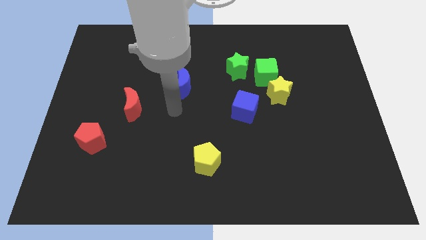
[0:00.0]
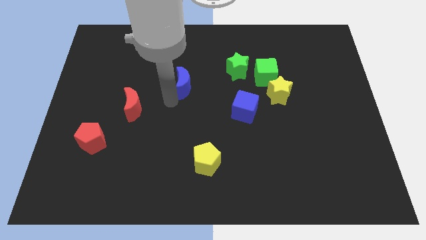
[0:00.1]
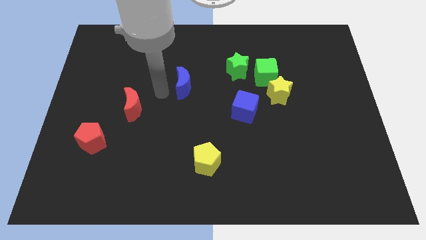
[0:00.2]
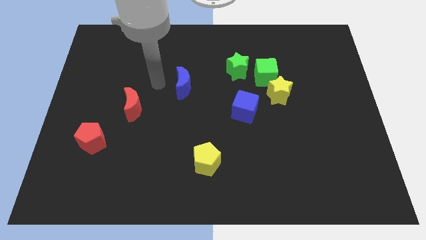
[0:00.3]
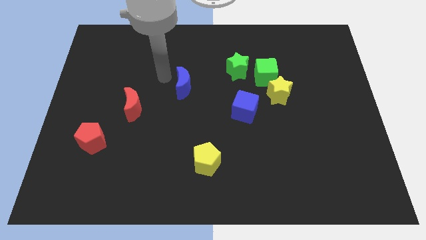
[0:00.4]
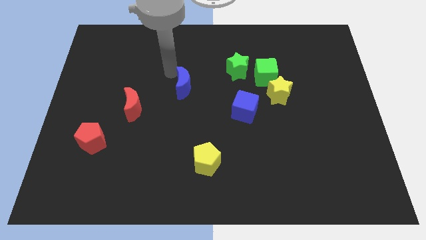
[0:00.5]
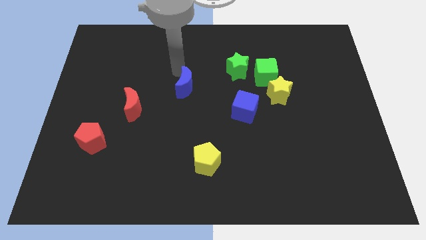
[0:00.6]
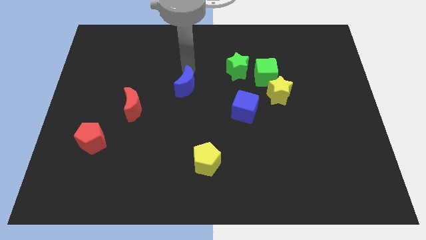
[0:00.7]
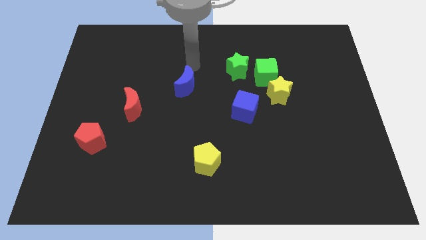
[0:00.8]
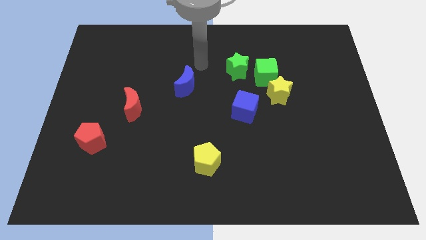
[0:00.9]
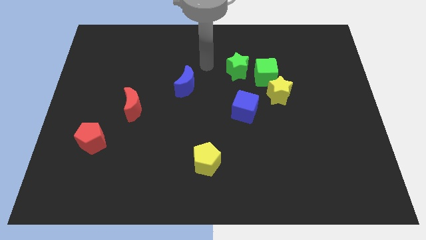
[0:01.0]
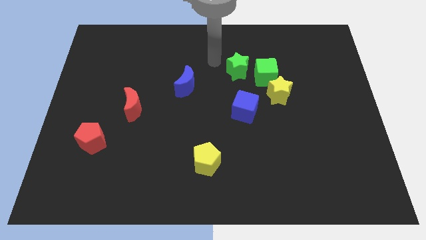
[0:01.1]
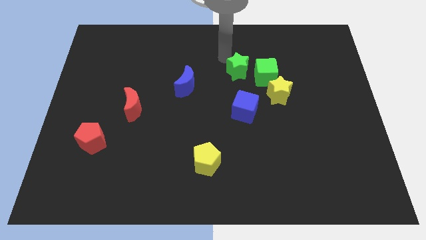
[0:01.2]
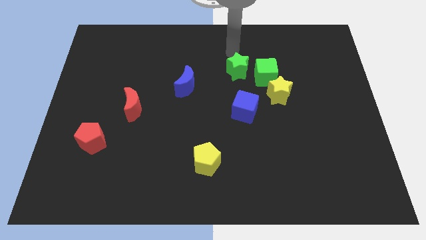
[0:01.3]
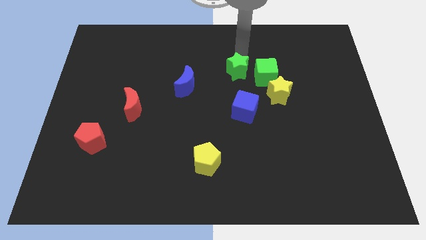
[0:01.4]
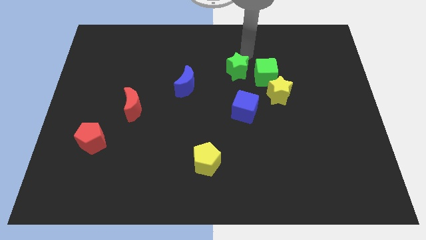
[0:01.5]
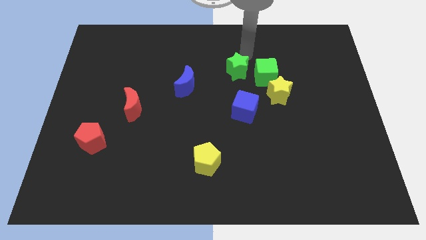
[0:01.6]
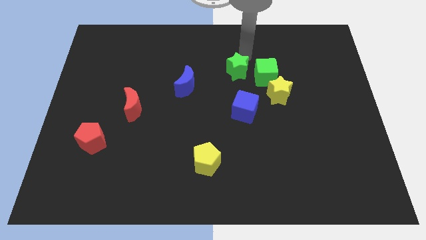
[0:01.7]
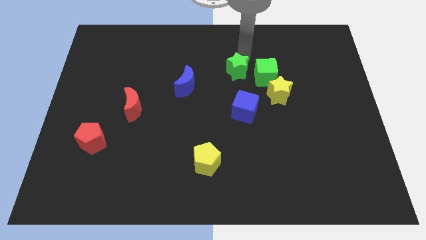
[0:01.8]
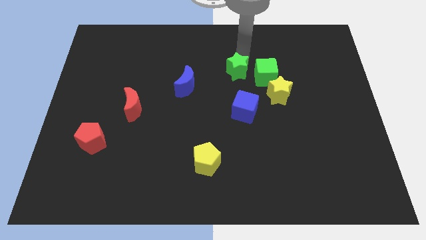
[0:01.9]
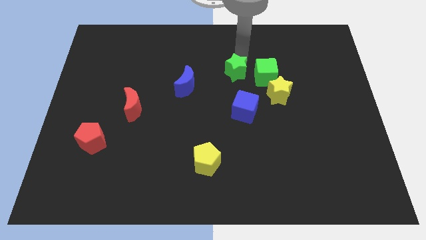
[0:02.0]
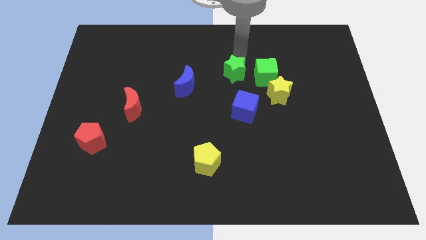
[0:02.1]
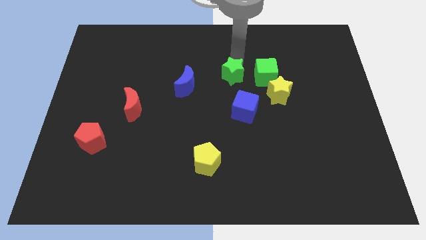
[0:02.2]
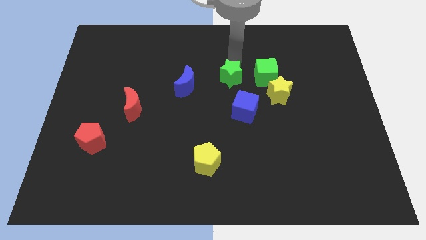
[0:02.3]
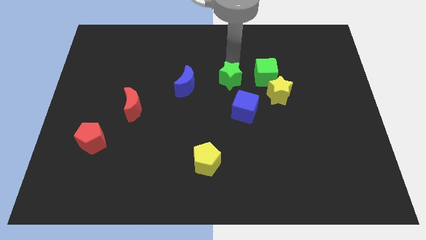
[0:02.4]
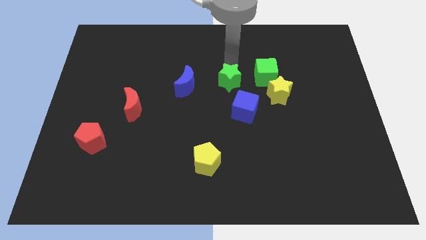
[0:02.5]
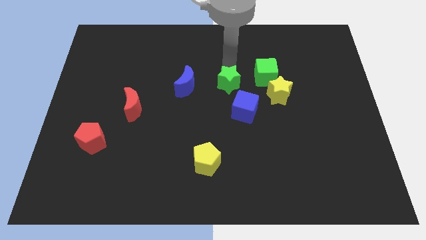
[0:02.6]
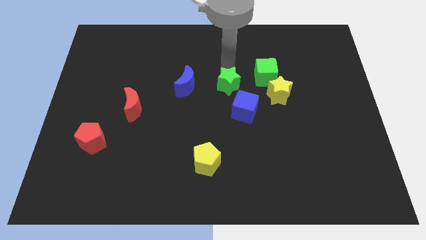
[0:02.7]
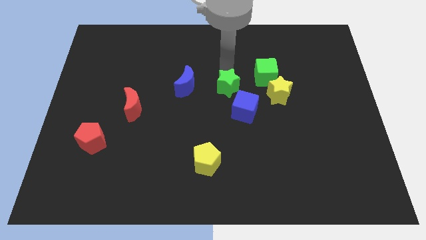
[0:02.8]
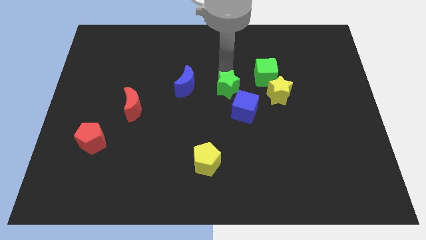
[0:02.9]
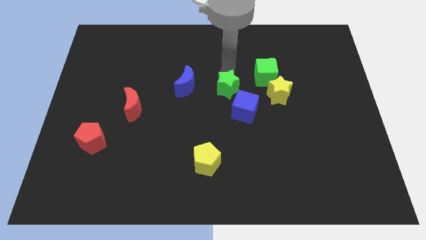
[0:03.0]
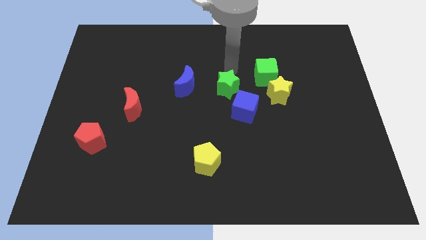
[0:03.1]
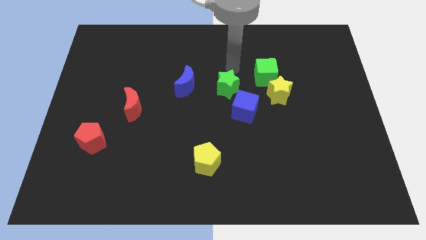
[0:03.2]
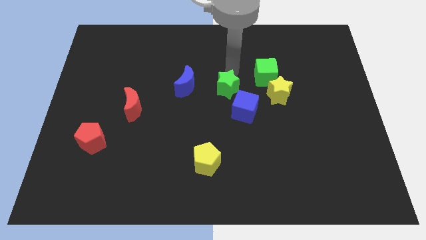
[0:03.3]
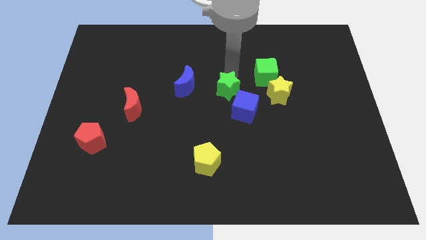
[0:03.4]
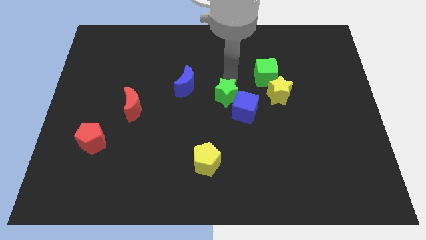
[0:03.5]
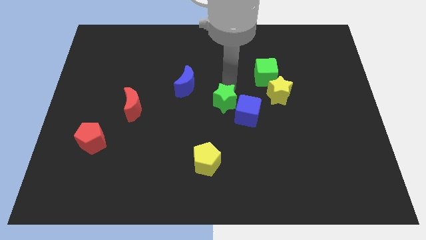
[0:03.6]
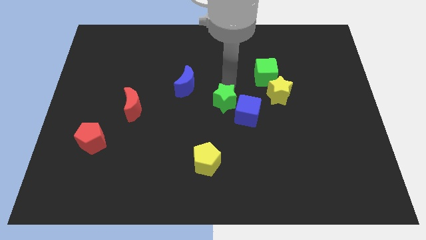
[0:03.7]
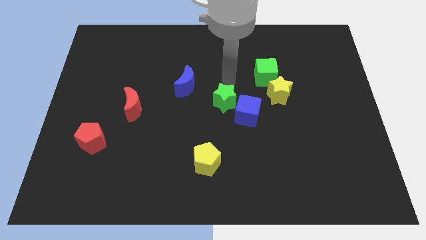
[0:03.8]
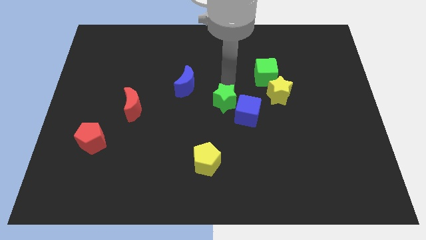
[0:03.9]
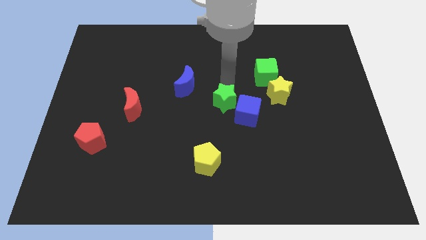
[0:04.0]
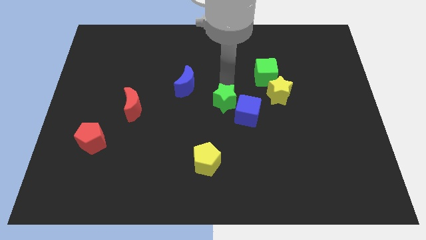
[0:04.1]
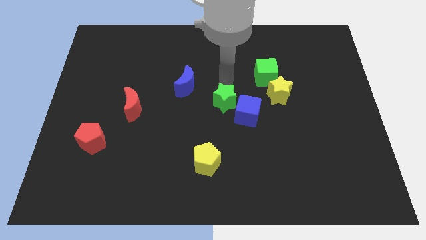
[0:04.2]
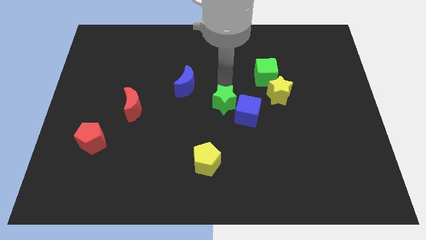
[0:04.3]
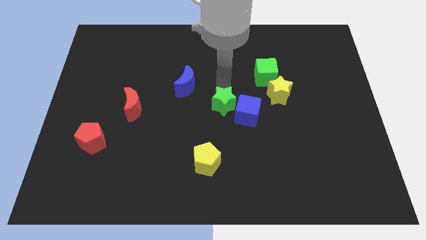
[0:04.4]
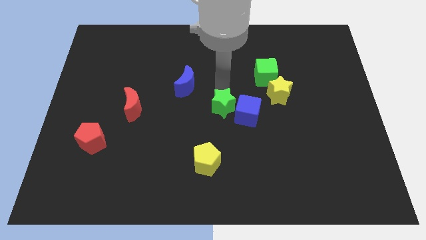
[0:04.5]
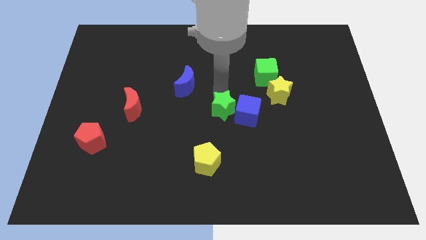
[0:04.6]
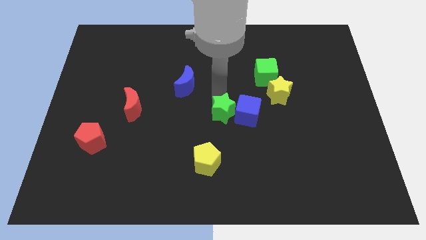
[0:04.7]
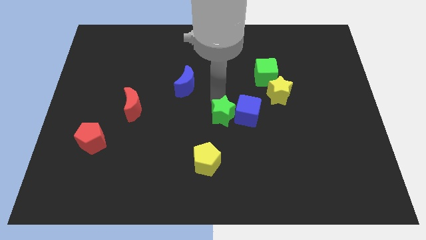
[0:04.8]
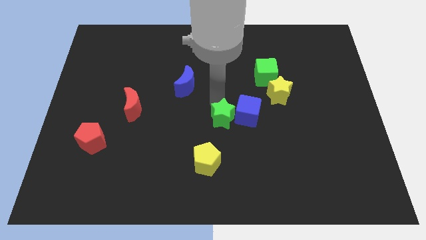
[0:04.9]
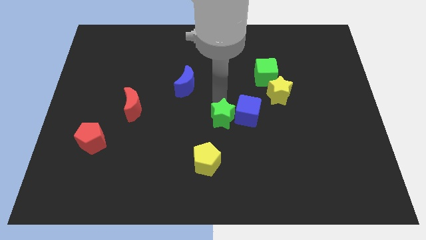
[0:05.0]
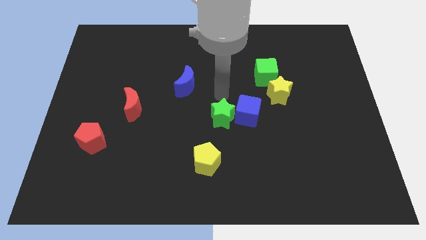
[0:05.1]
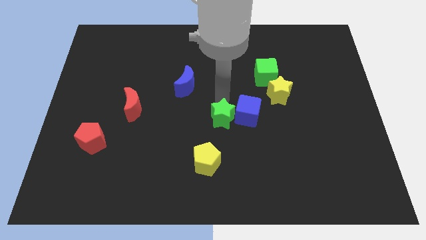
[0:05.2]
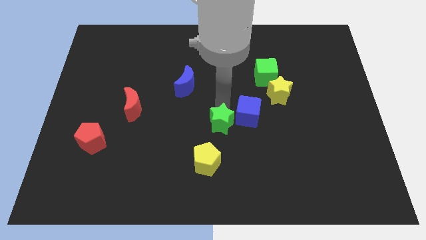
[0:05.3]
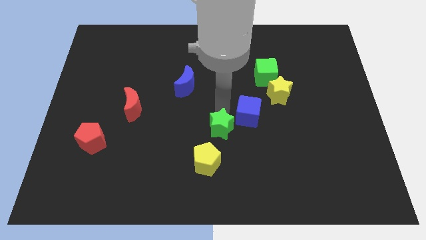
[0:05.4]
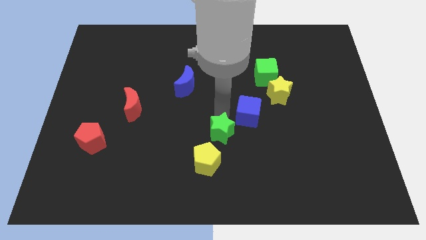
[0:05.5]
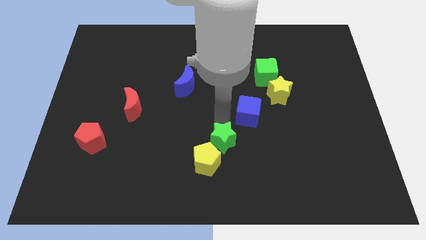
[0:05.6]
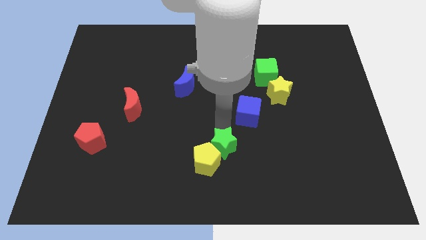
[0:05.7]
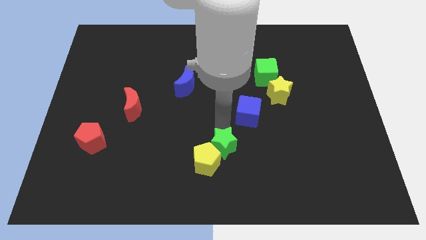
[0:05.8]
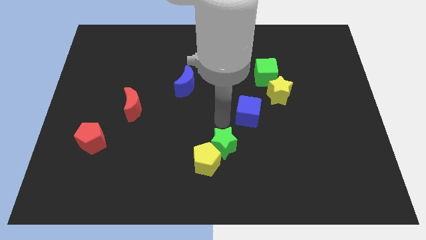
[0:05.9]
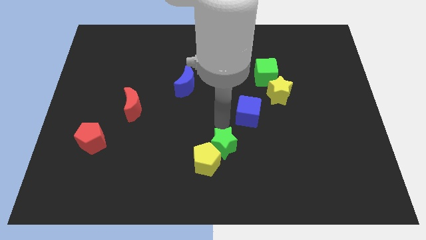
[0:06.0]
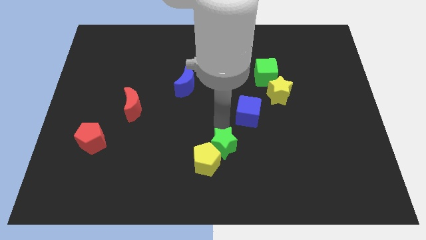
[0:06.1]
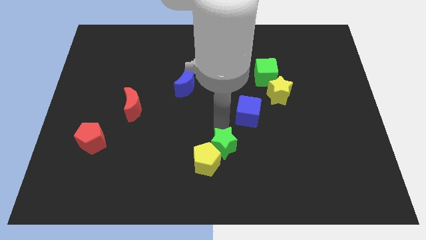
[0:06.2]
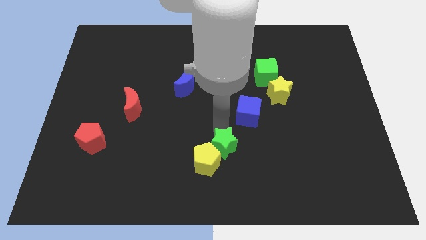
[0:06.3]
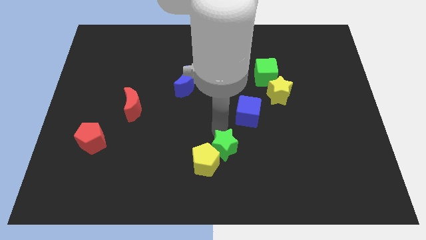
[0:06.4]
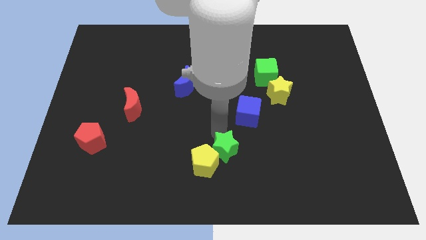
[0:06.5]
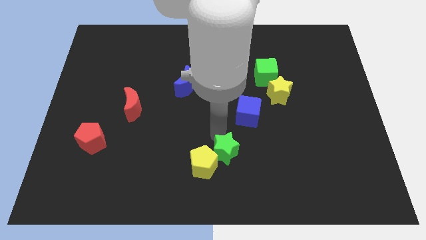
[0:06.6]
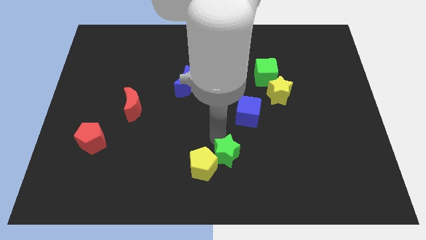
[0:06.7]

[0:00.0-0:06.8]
push the green star to the bottom side
